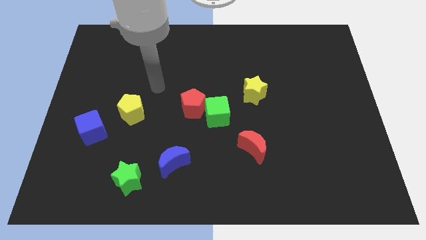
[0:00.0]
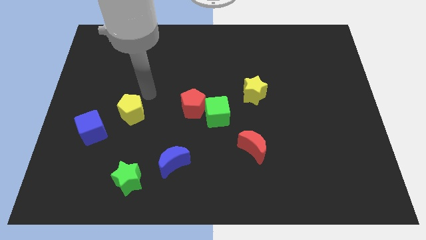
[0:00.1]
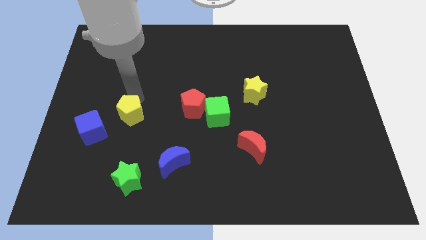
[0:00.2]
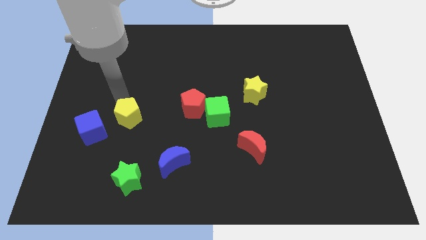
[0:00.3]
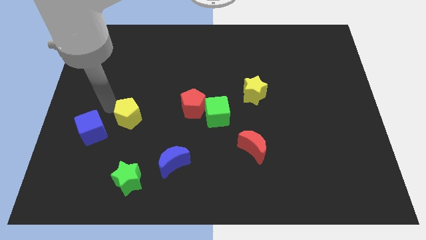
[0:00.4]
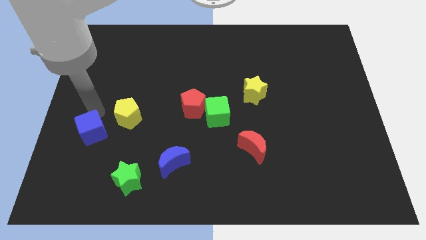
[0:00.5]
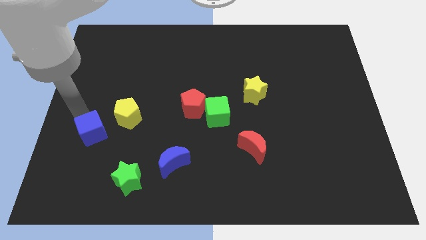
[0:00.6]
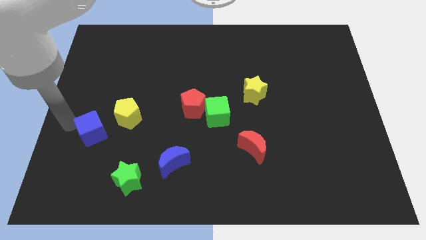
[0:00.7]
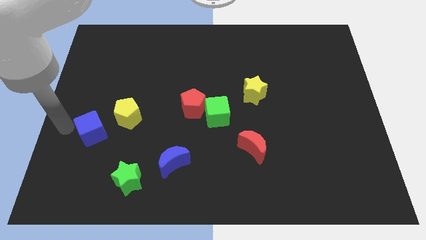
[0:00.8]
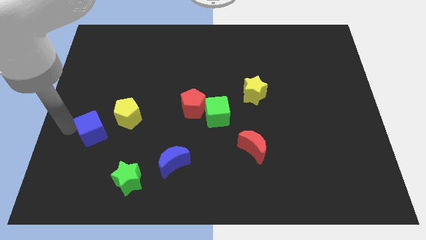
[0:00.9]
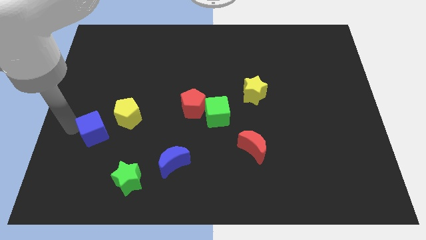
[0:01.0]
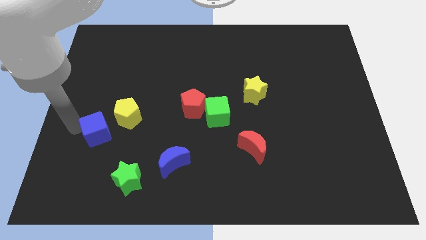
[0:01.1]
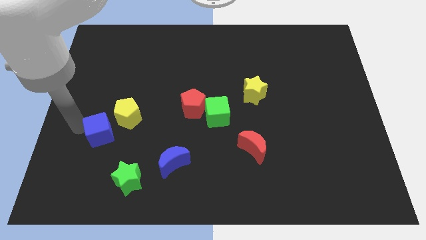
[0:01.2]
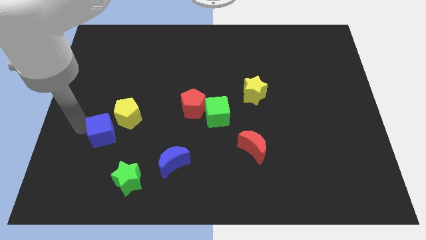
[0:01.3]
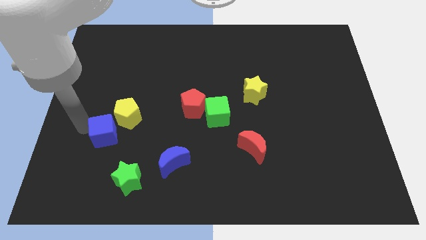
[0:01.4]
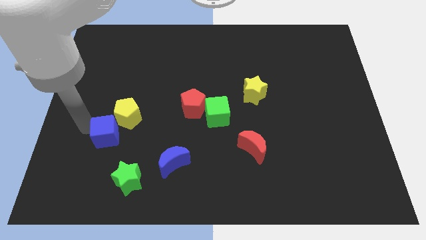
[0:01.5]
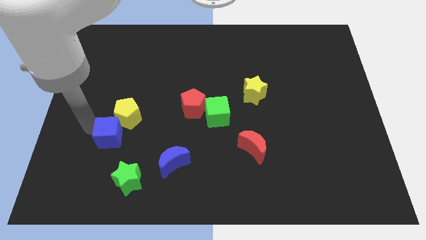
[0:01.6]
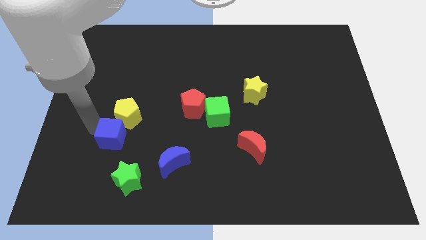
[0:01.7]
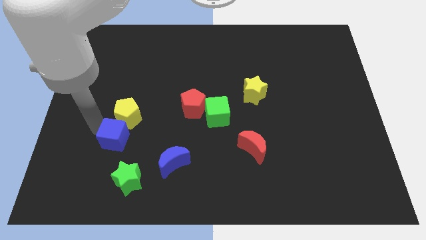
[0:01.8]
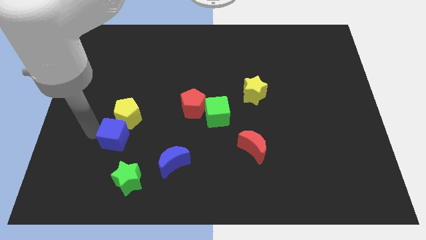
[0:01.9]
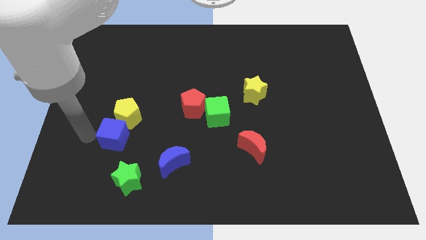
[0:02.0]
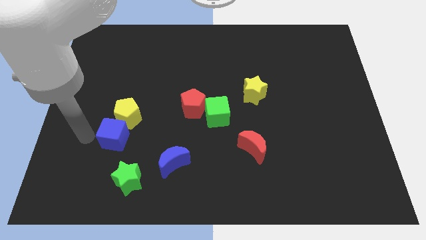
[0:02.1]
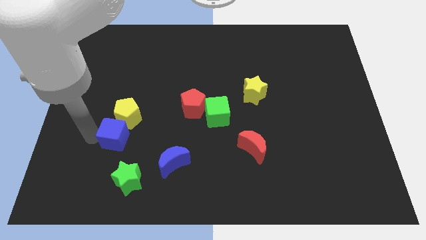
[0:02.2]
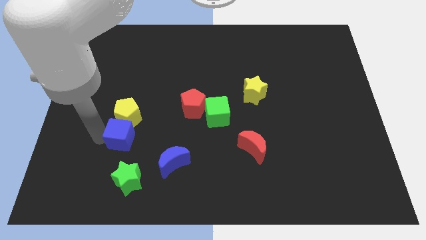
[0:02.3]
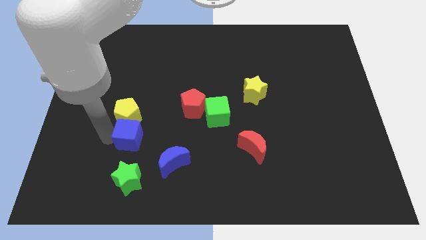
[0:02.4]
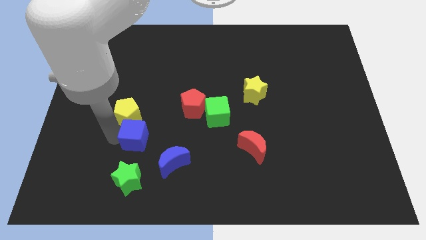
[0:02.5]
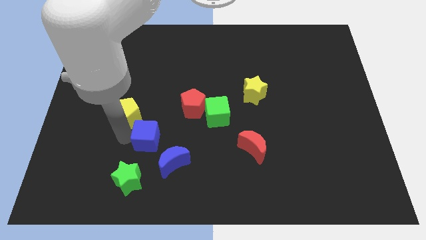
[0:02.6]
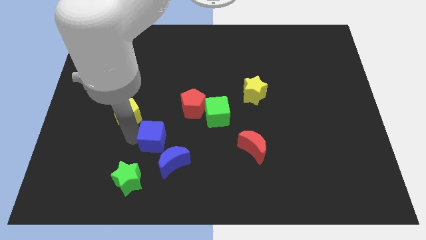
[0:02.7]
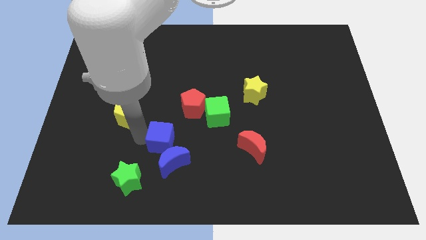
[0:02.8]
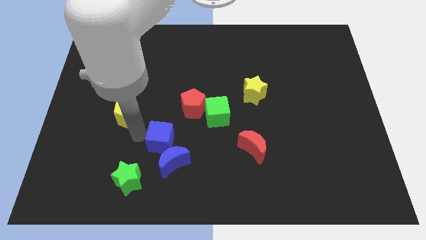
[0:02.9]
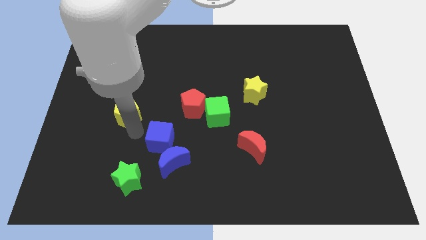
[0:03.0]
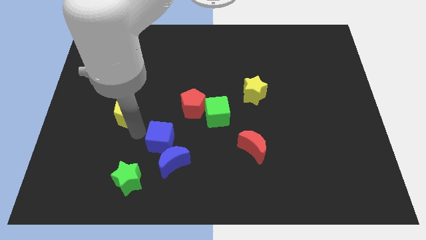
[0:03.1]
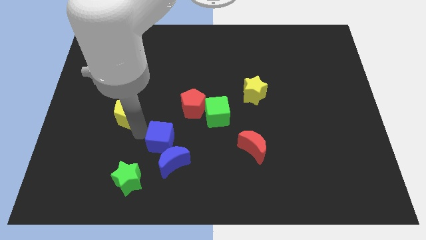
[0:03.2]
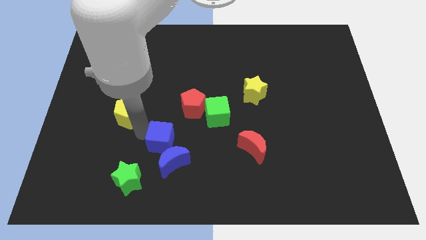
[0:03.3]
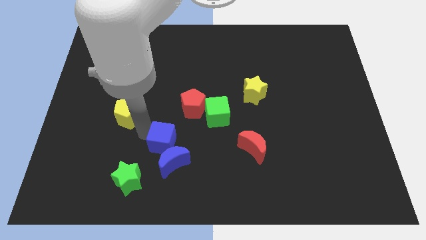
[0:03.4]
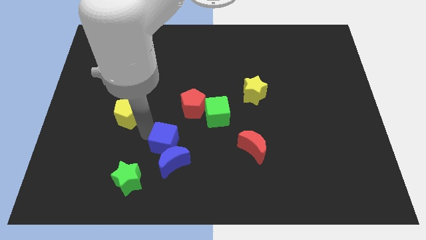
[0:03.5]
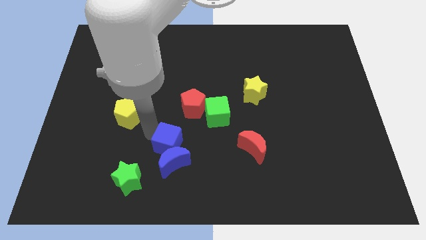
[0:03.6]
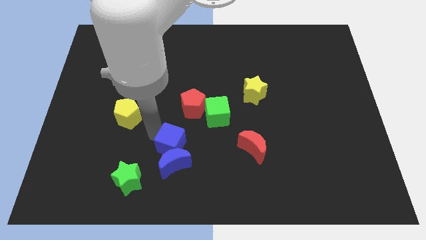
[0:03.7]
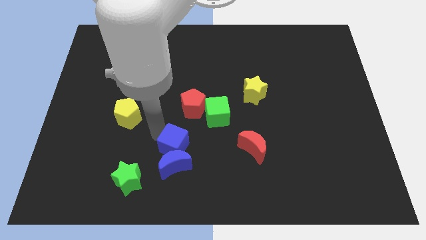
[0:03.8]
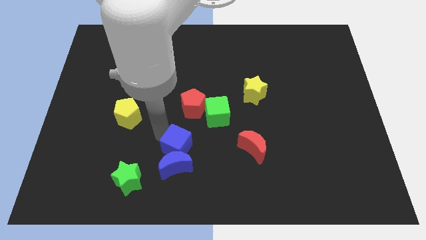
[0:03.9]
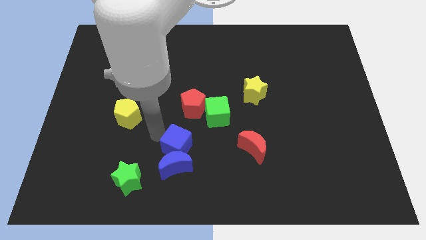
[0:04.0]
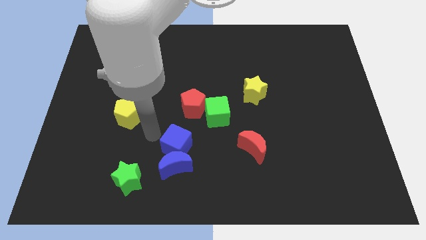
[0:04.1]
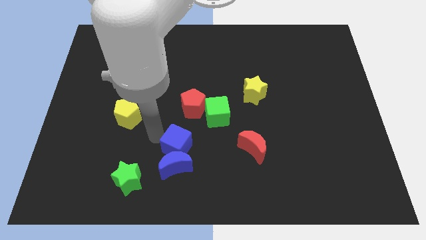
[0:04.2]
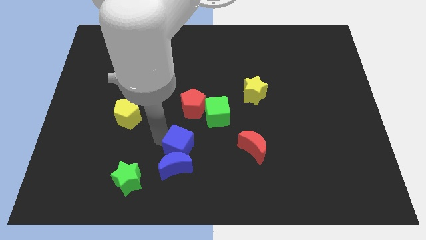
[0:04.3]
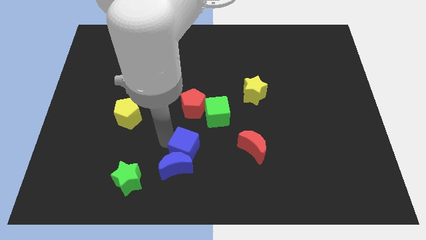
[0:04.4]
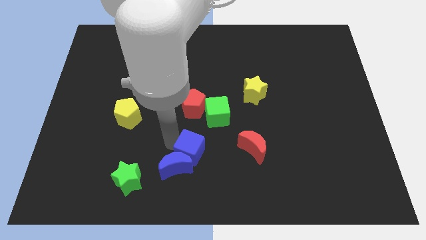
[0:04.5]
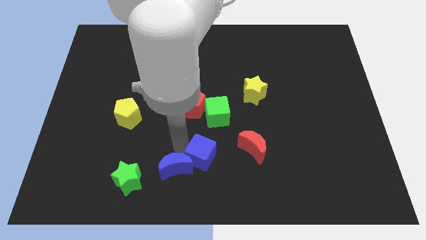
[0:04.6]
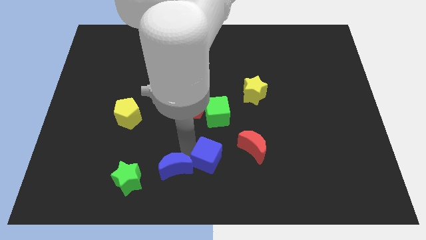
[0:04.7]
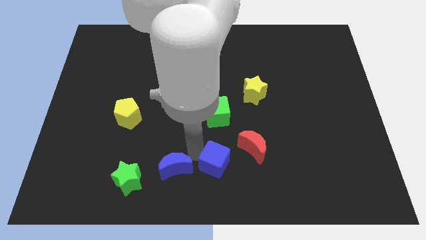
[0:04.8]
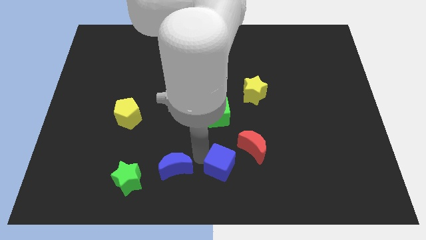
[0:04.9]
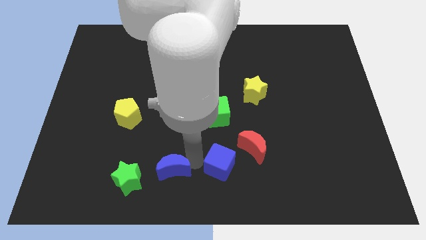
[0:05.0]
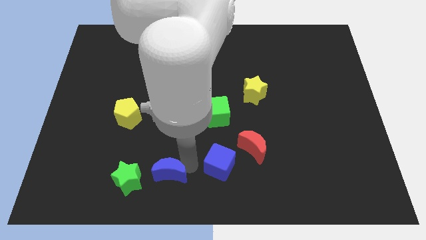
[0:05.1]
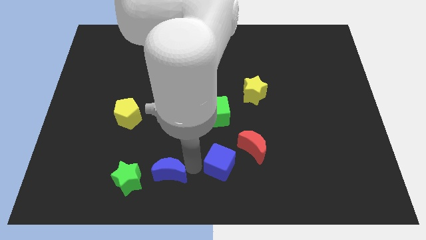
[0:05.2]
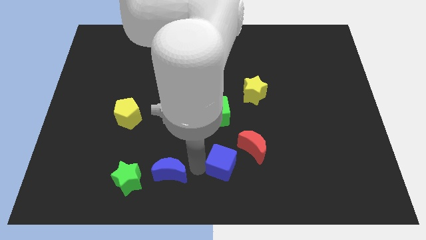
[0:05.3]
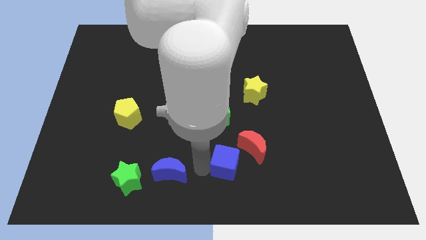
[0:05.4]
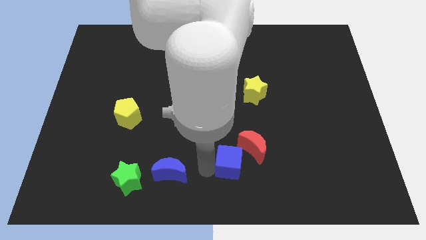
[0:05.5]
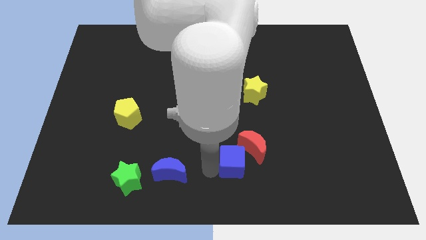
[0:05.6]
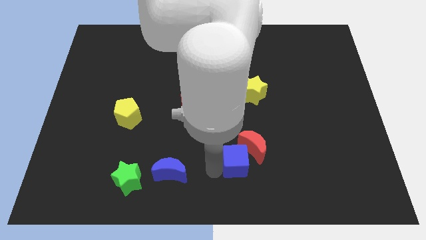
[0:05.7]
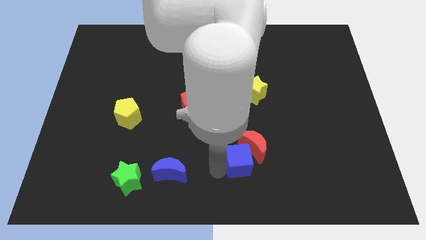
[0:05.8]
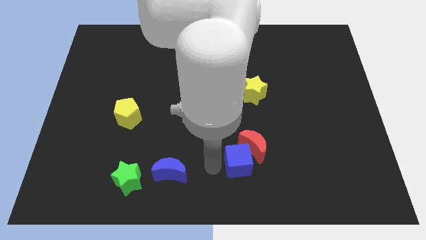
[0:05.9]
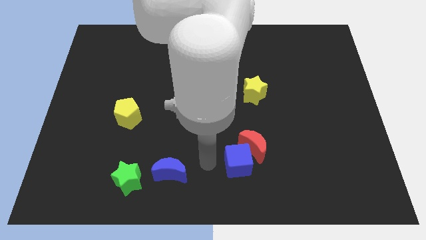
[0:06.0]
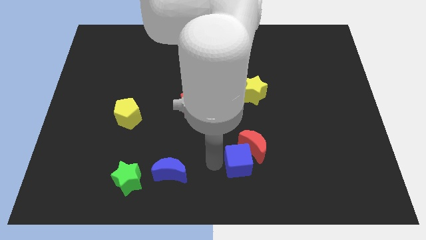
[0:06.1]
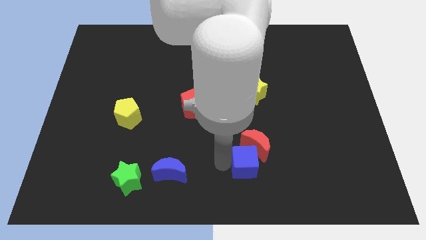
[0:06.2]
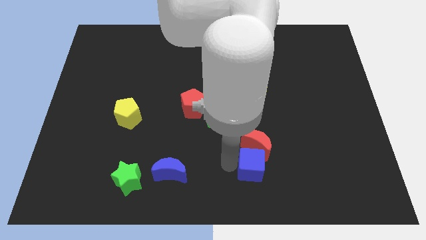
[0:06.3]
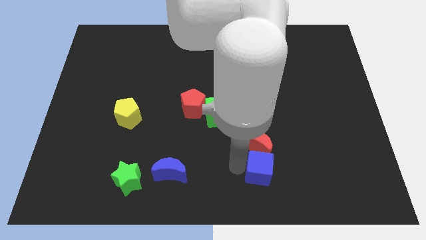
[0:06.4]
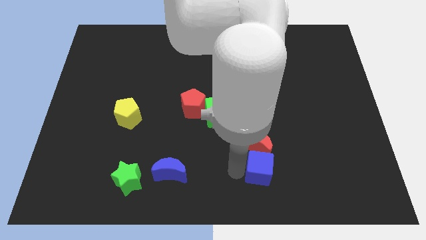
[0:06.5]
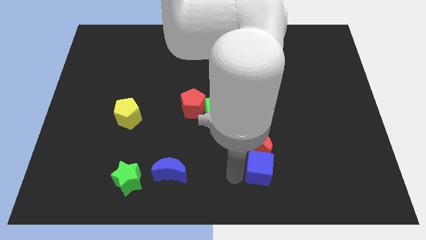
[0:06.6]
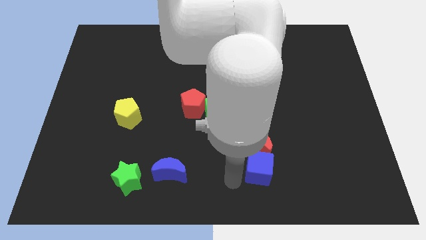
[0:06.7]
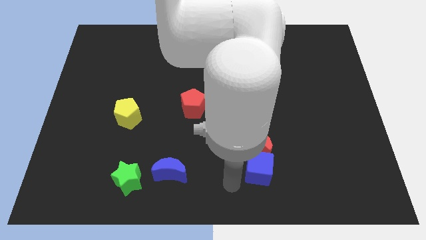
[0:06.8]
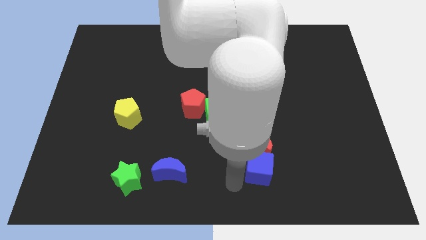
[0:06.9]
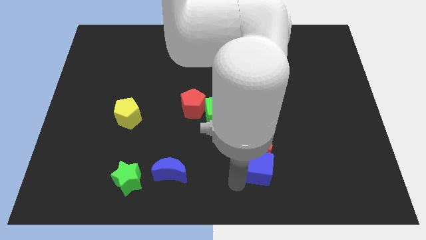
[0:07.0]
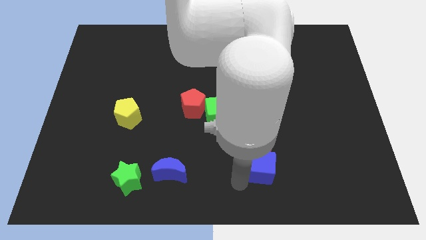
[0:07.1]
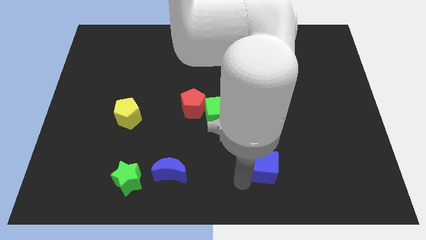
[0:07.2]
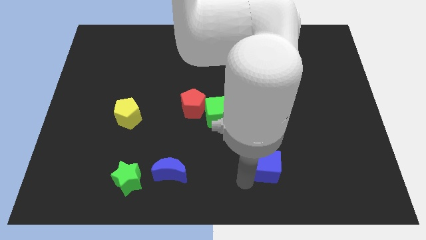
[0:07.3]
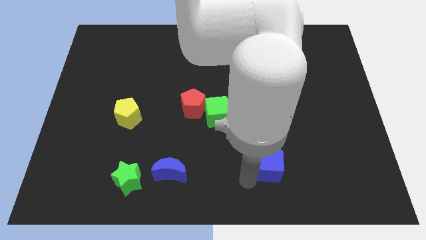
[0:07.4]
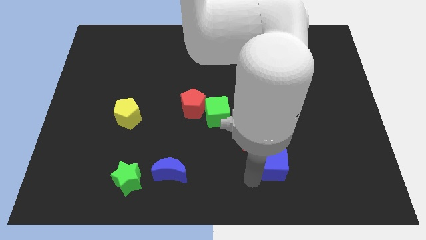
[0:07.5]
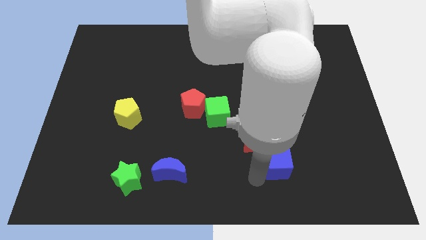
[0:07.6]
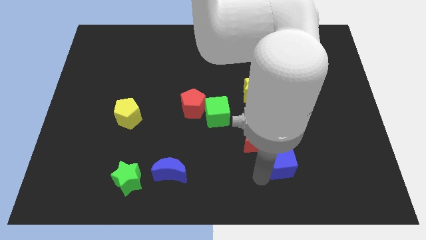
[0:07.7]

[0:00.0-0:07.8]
push the blue cube right of the red moon

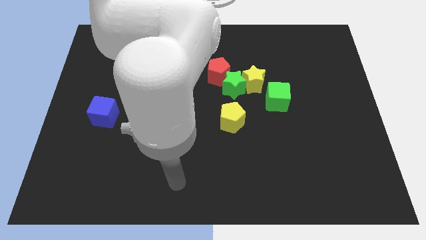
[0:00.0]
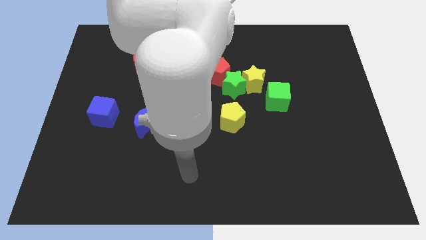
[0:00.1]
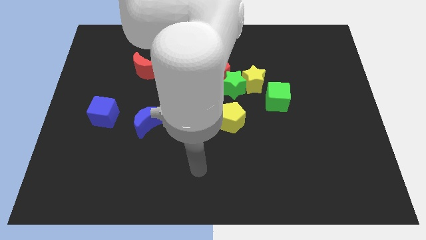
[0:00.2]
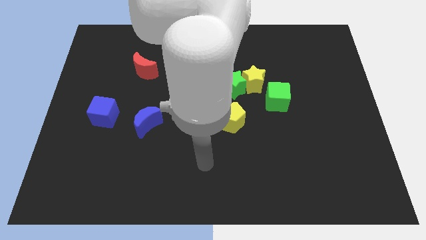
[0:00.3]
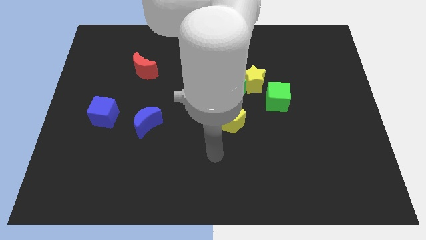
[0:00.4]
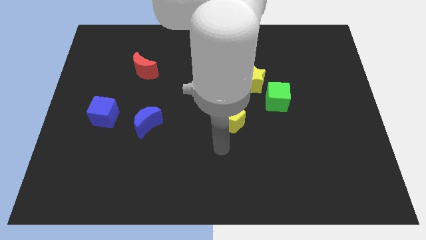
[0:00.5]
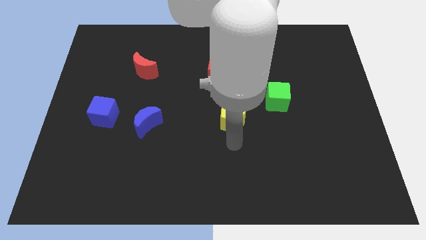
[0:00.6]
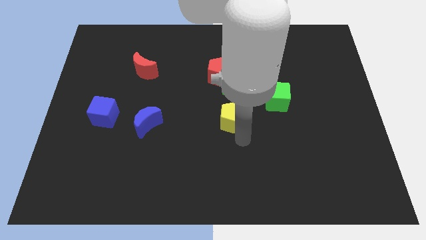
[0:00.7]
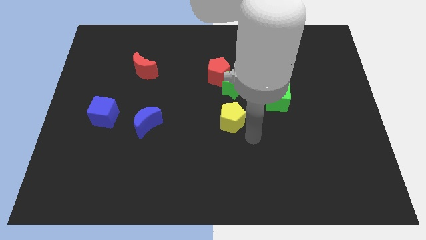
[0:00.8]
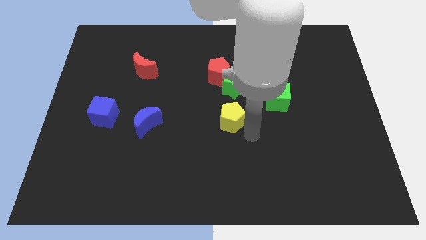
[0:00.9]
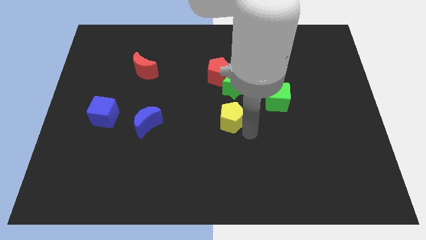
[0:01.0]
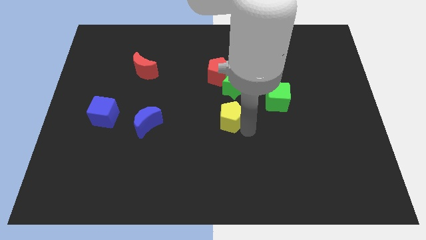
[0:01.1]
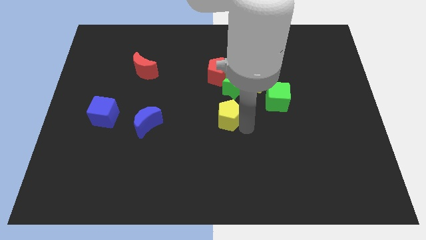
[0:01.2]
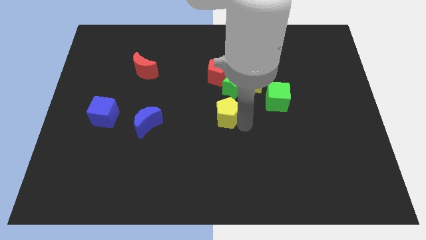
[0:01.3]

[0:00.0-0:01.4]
push the yellow pentagon to the bottom left side of the green star
